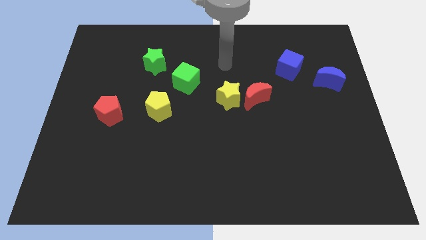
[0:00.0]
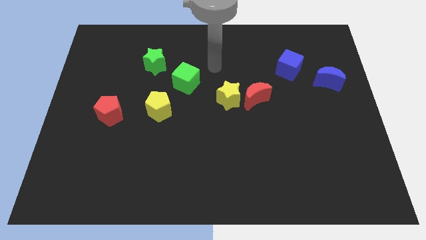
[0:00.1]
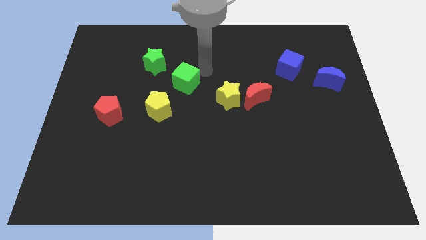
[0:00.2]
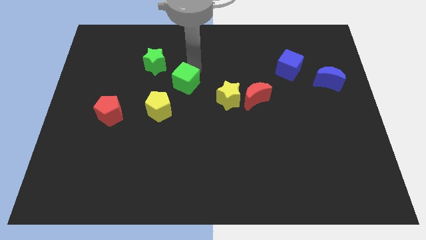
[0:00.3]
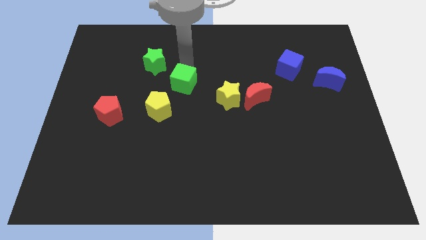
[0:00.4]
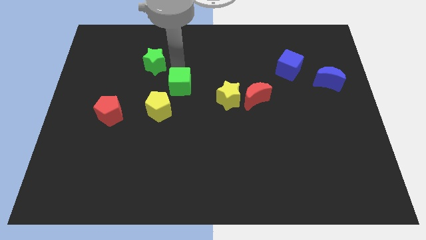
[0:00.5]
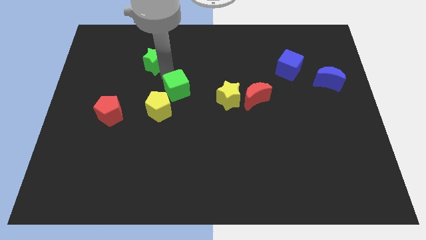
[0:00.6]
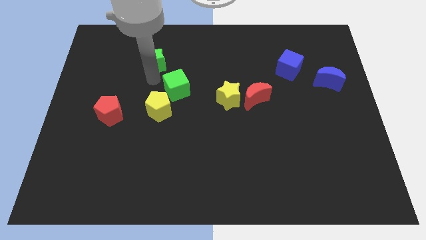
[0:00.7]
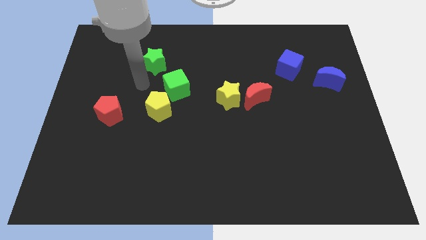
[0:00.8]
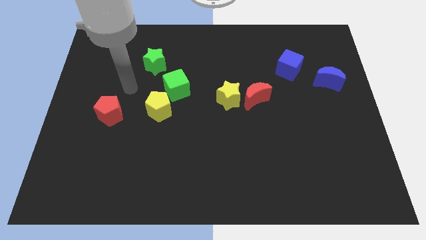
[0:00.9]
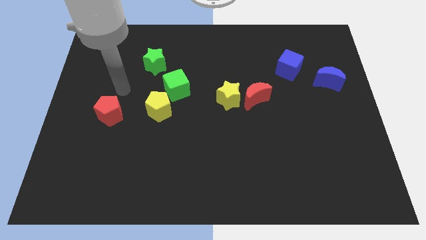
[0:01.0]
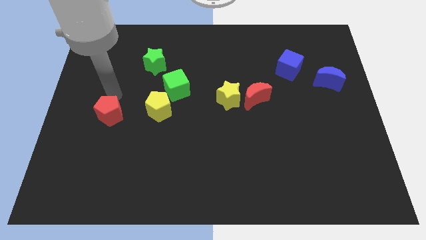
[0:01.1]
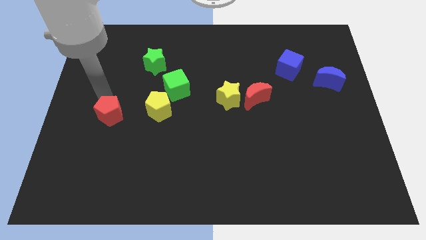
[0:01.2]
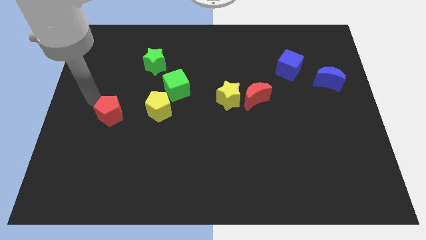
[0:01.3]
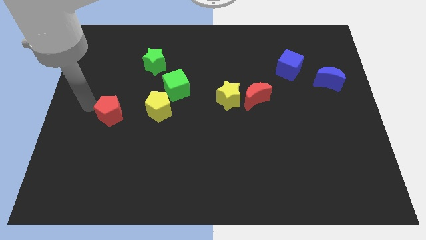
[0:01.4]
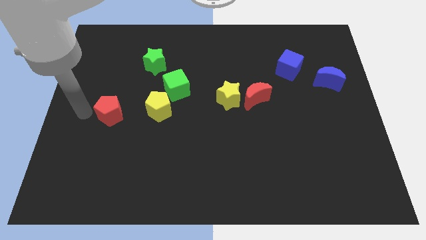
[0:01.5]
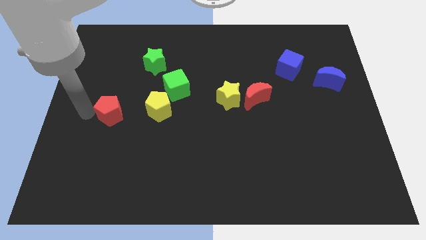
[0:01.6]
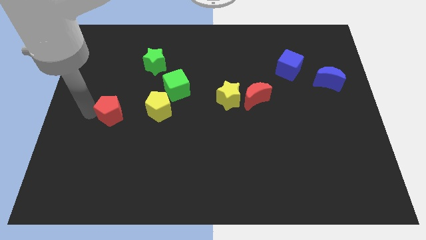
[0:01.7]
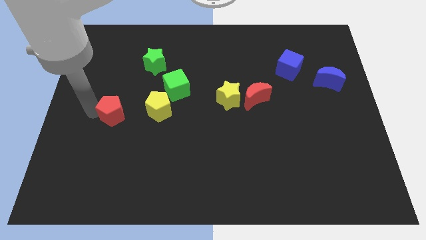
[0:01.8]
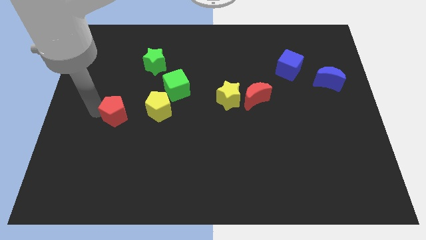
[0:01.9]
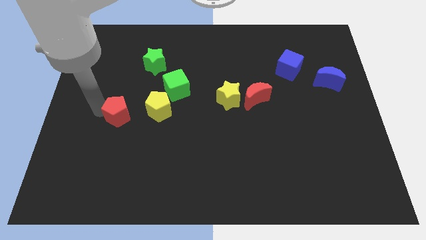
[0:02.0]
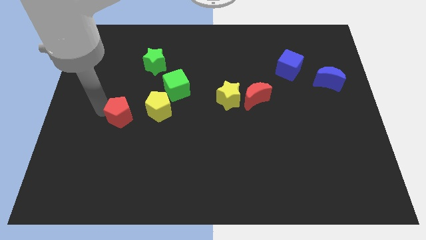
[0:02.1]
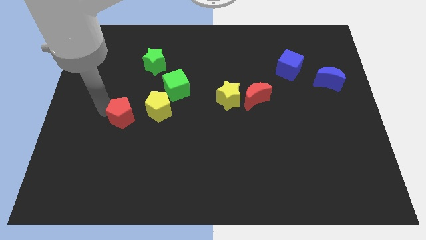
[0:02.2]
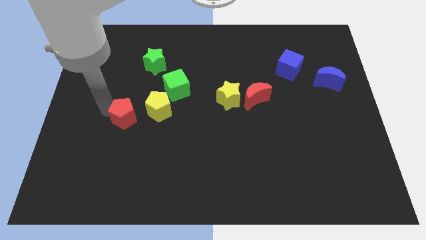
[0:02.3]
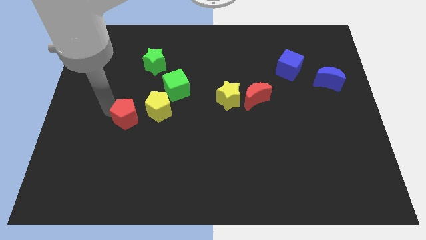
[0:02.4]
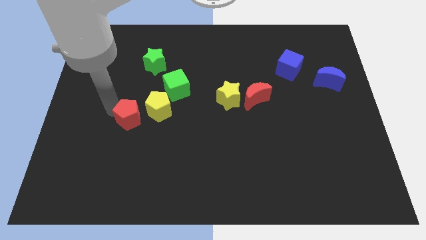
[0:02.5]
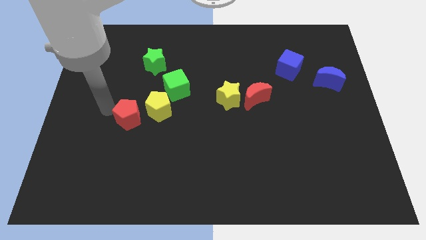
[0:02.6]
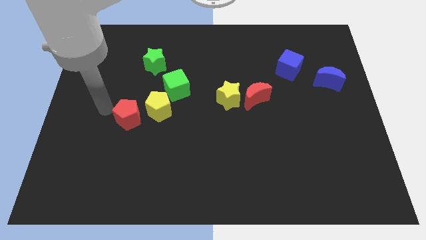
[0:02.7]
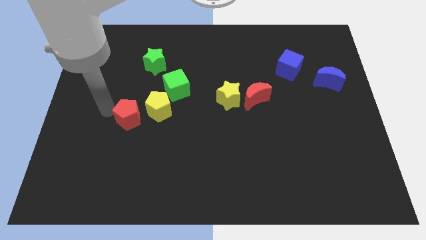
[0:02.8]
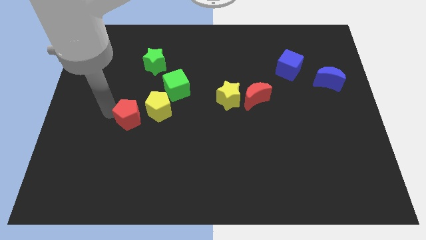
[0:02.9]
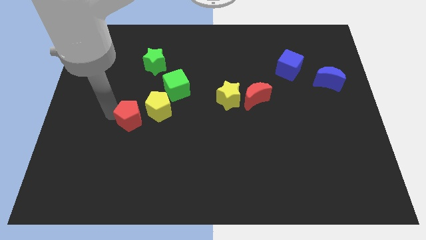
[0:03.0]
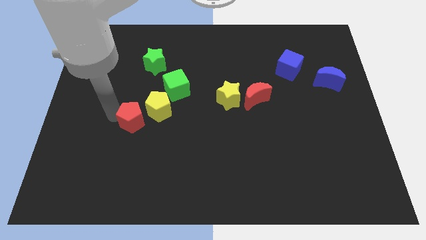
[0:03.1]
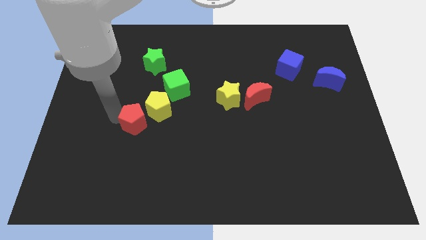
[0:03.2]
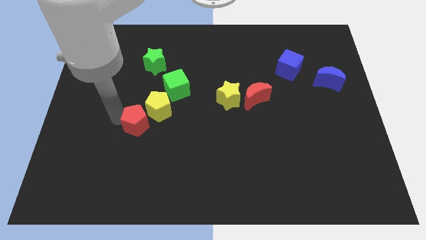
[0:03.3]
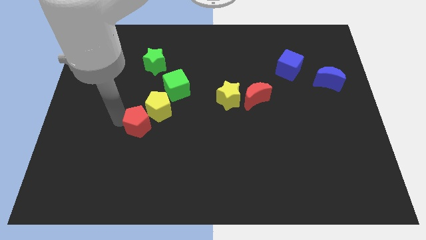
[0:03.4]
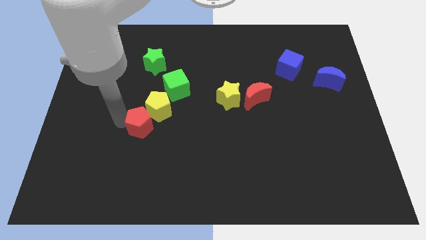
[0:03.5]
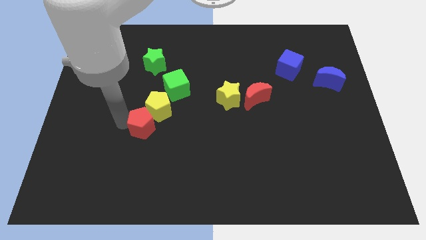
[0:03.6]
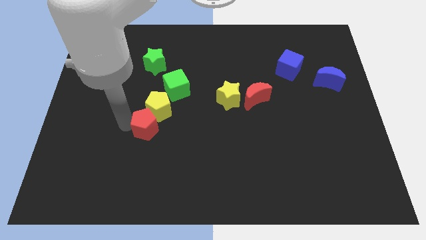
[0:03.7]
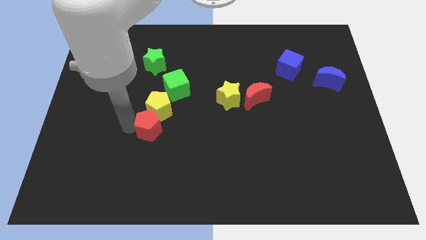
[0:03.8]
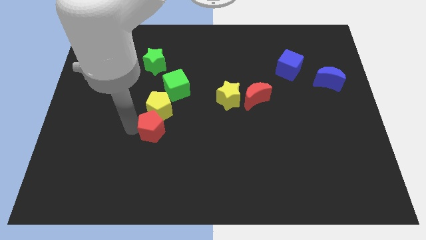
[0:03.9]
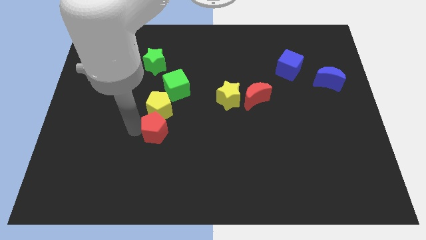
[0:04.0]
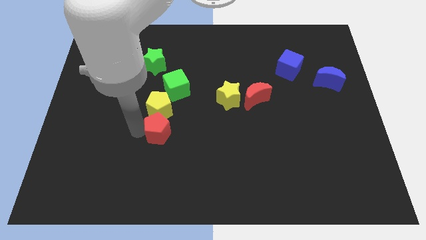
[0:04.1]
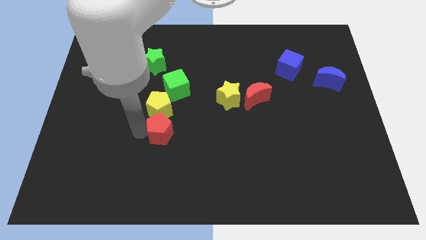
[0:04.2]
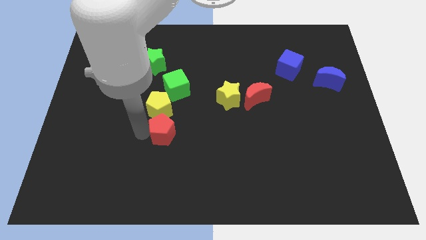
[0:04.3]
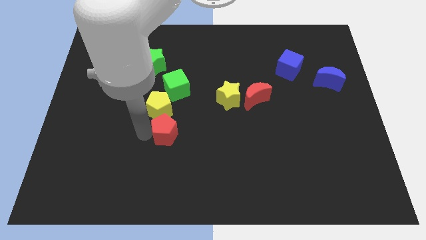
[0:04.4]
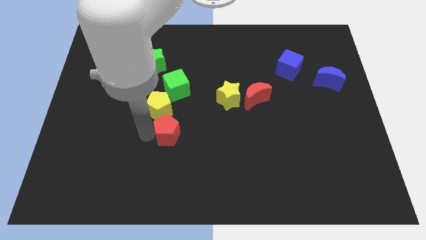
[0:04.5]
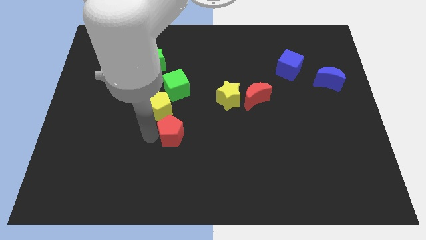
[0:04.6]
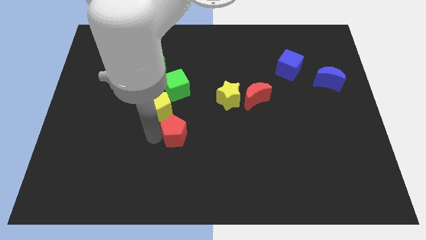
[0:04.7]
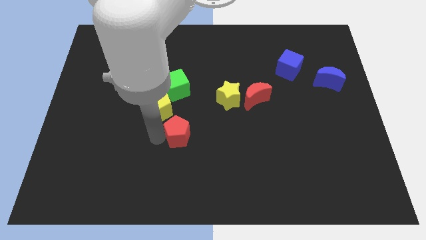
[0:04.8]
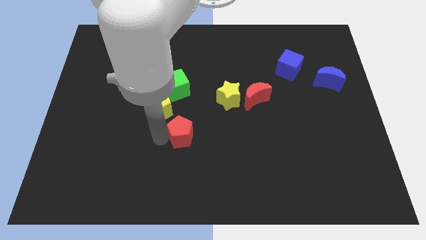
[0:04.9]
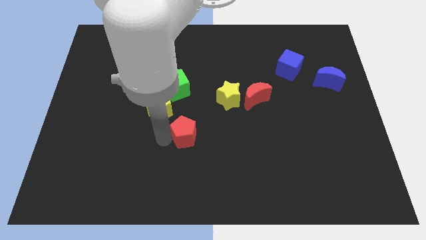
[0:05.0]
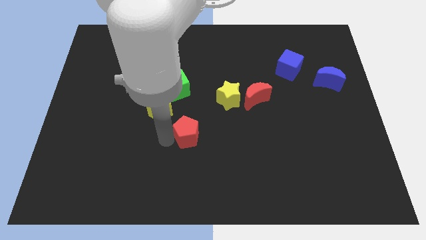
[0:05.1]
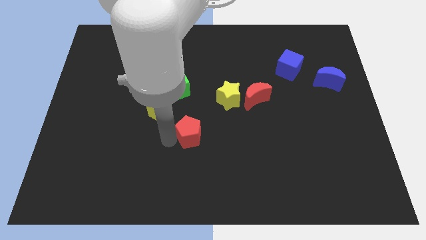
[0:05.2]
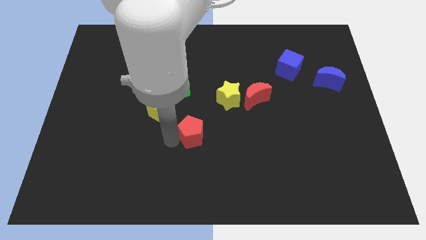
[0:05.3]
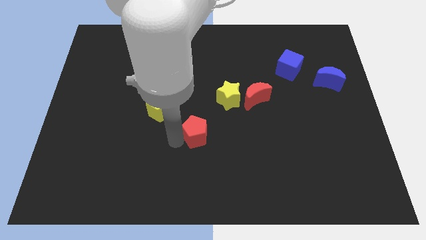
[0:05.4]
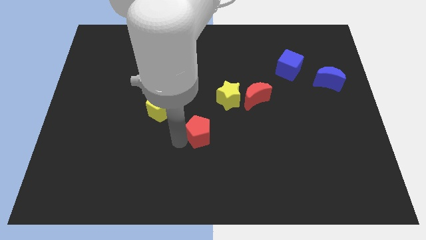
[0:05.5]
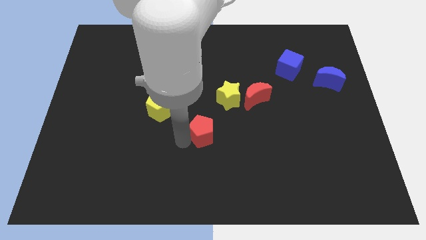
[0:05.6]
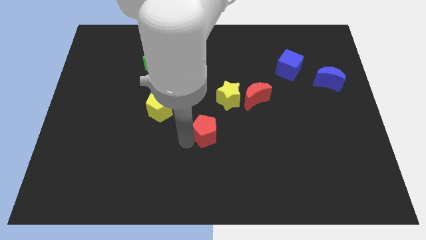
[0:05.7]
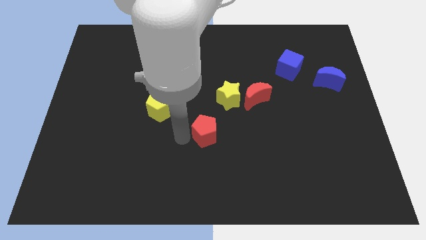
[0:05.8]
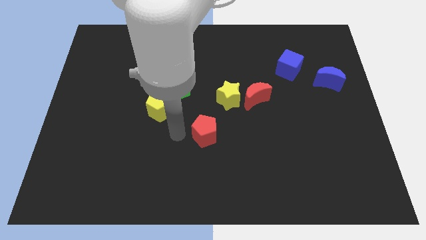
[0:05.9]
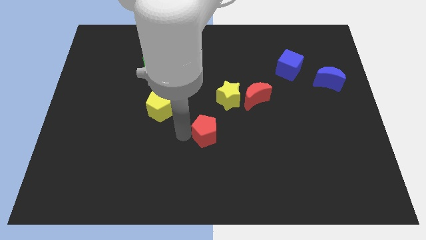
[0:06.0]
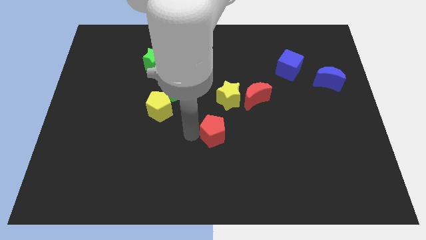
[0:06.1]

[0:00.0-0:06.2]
move the red pentagon below the yellow star
